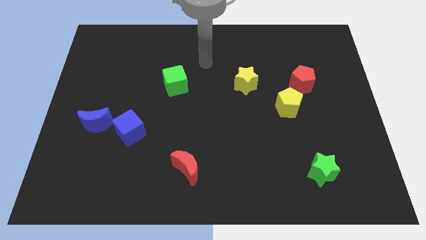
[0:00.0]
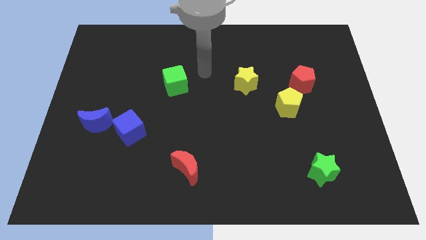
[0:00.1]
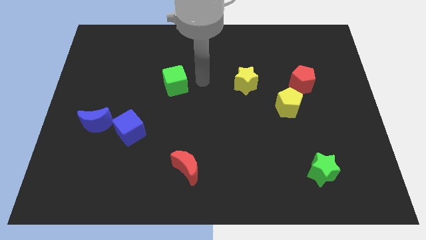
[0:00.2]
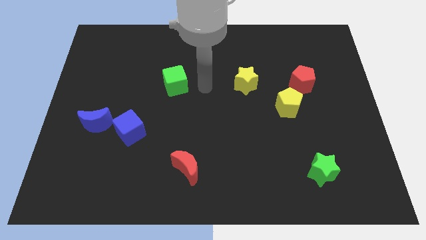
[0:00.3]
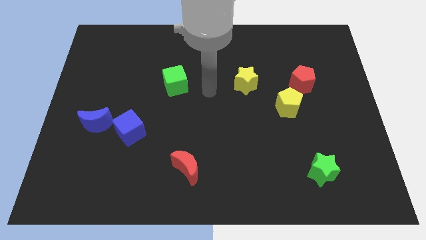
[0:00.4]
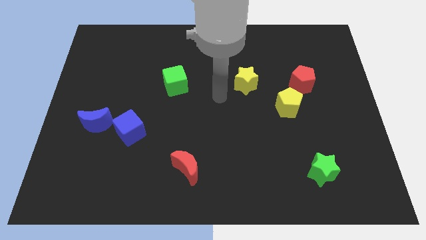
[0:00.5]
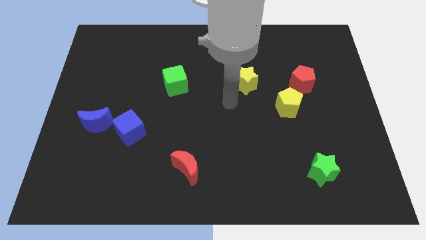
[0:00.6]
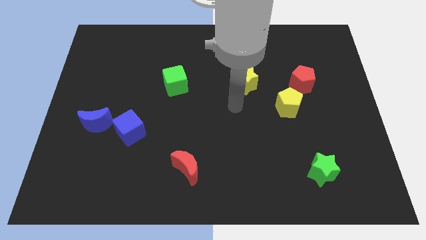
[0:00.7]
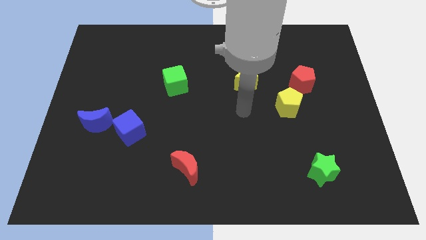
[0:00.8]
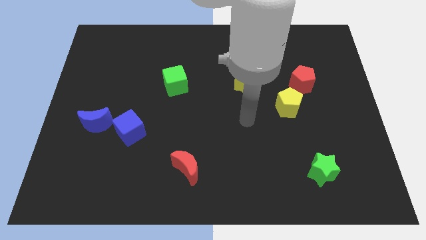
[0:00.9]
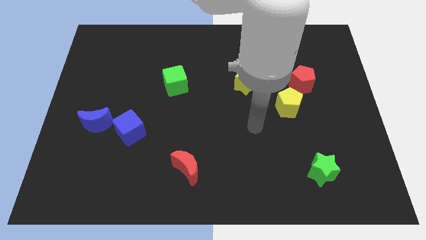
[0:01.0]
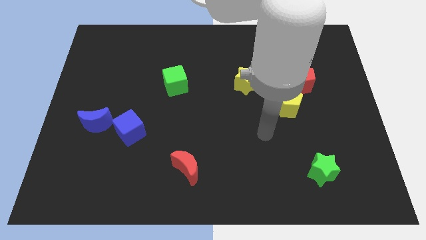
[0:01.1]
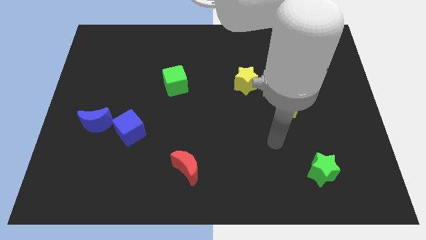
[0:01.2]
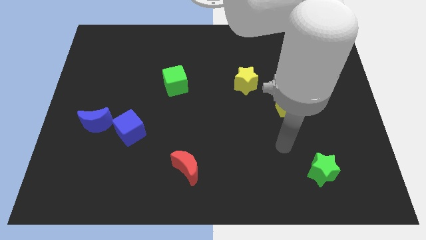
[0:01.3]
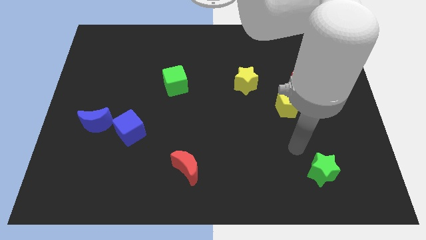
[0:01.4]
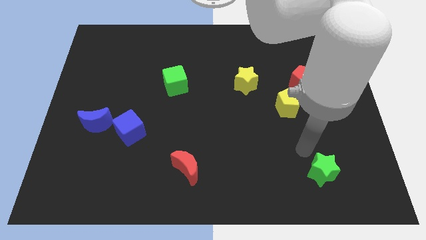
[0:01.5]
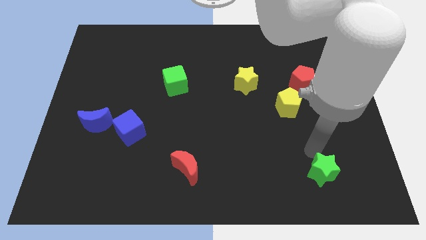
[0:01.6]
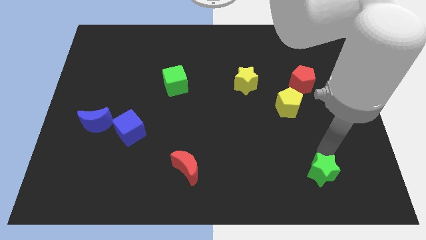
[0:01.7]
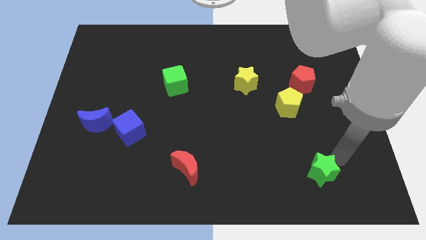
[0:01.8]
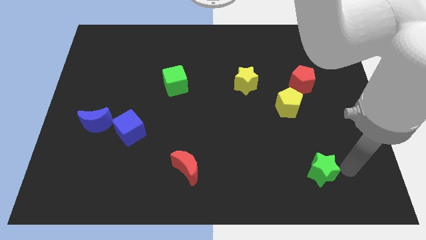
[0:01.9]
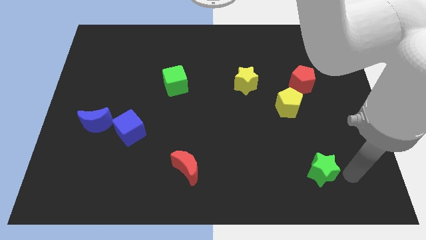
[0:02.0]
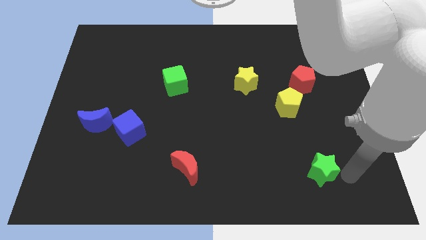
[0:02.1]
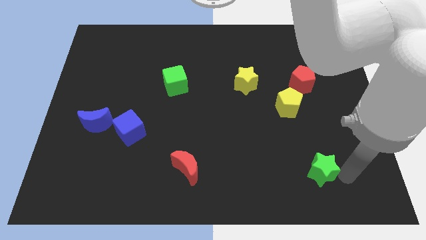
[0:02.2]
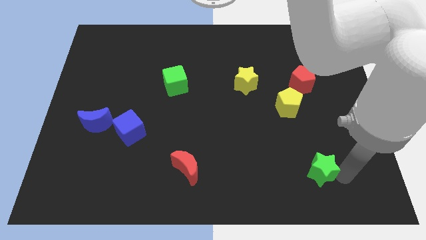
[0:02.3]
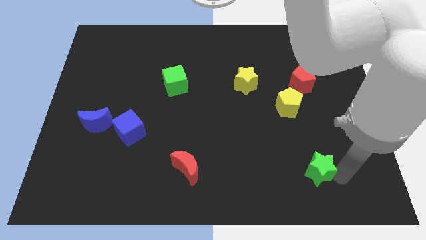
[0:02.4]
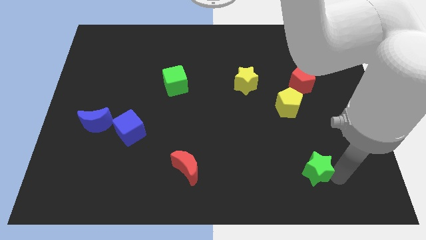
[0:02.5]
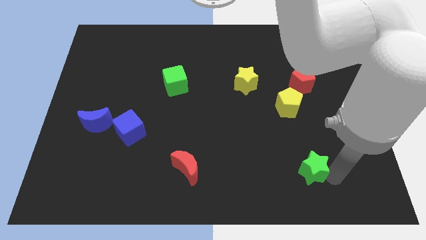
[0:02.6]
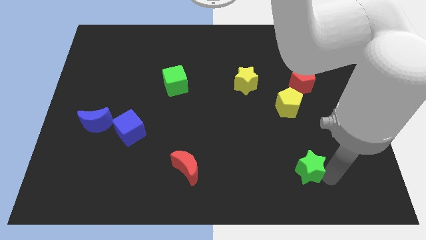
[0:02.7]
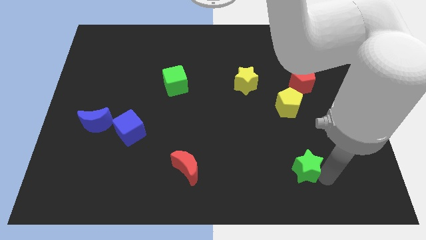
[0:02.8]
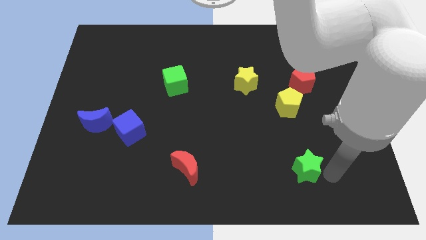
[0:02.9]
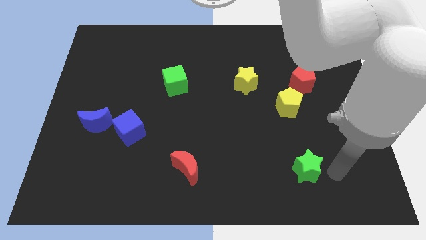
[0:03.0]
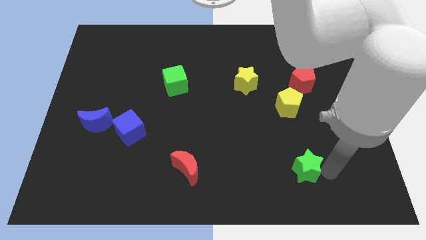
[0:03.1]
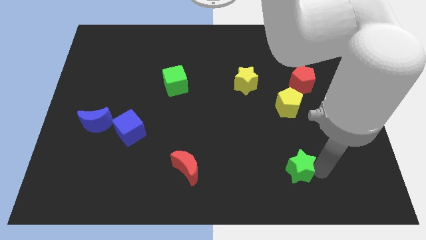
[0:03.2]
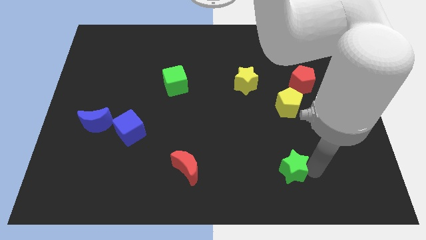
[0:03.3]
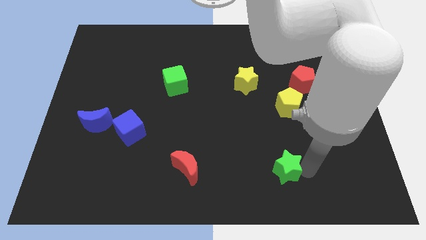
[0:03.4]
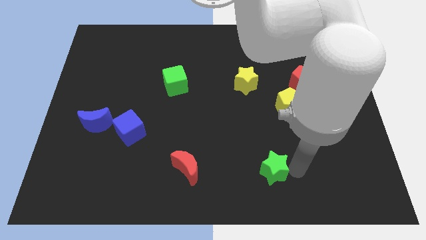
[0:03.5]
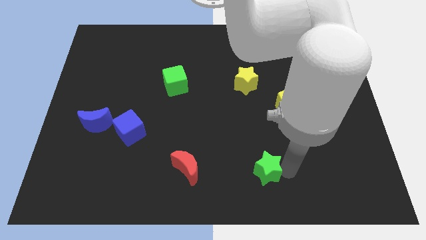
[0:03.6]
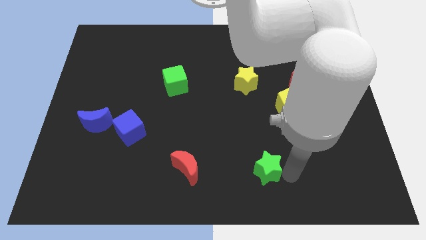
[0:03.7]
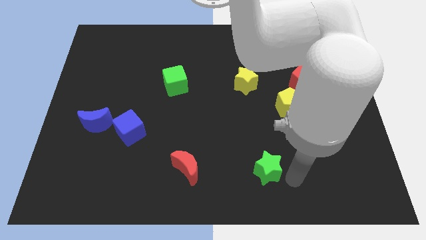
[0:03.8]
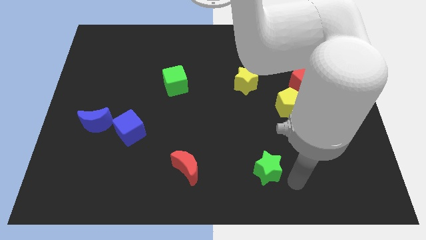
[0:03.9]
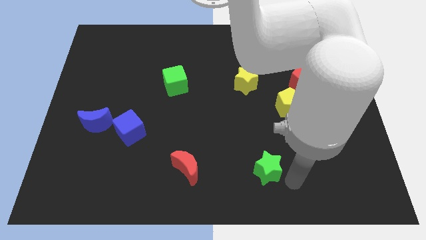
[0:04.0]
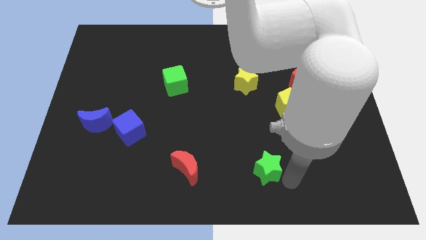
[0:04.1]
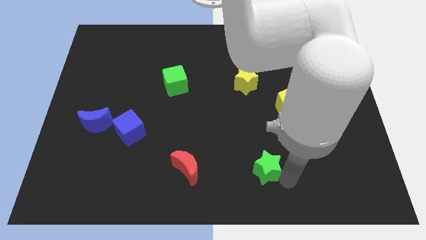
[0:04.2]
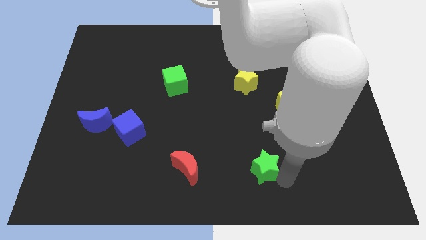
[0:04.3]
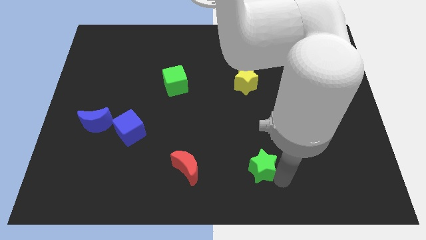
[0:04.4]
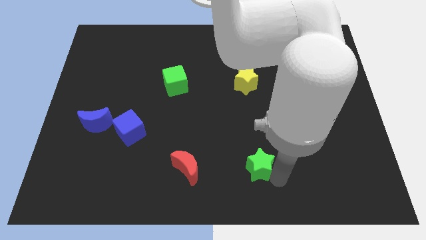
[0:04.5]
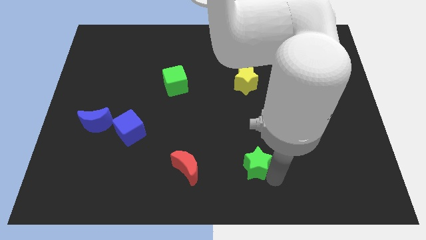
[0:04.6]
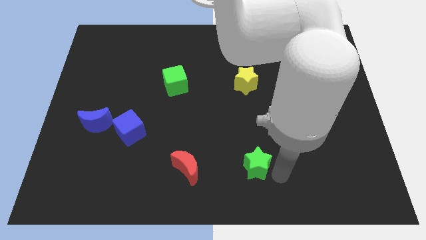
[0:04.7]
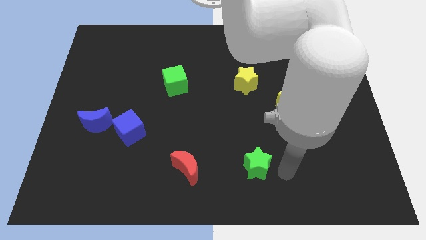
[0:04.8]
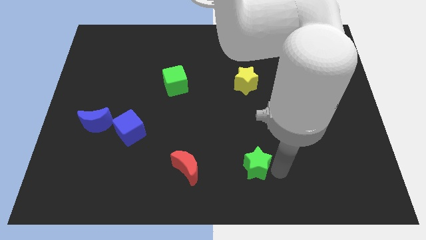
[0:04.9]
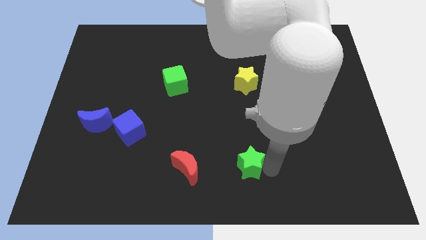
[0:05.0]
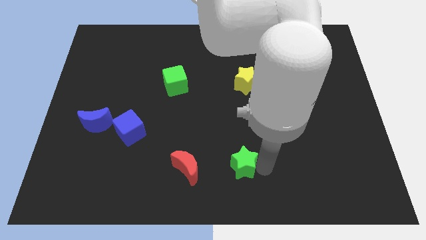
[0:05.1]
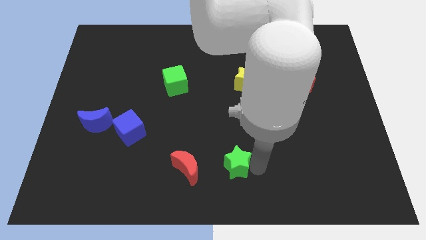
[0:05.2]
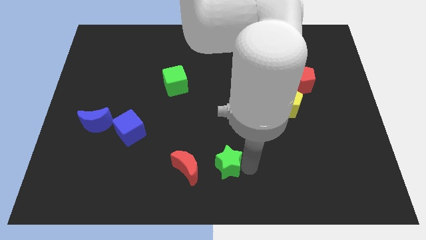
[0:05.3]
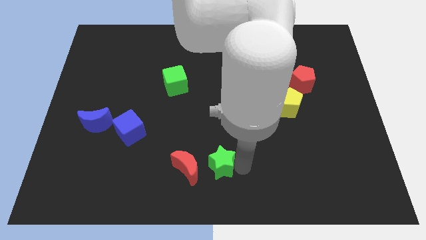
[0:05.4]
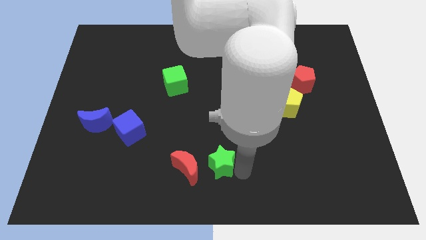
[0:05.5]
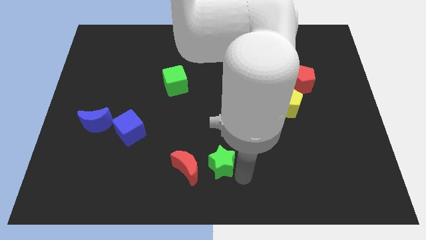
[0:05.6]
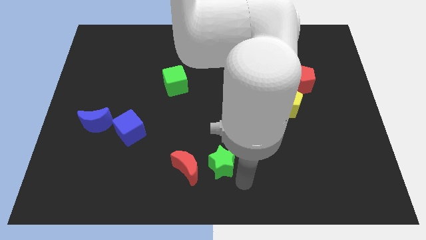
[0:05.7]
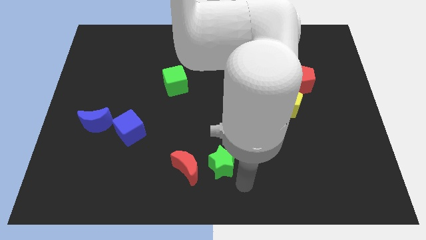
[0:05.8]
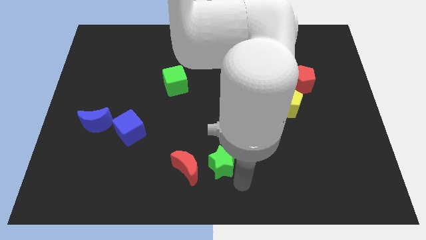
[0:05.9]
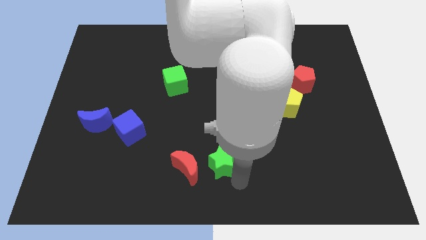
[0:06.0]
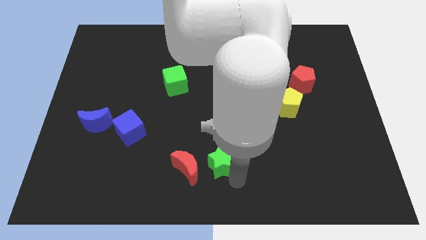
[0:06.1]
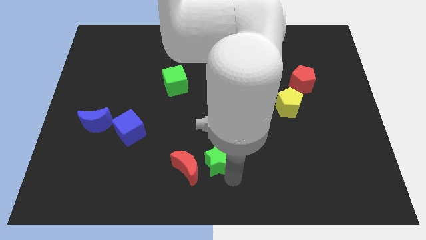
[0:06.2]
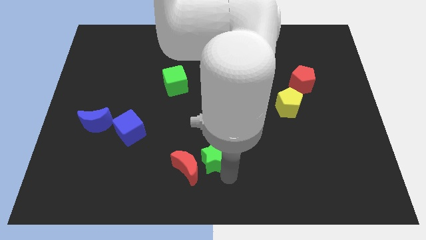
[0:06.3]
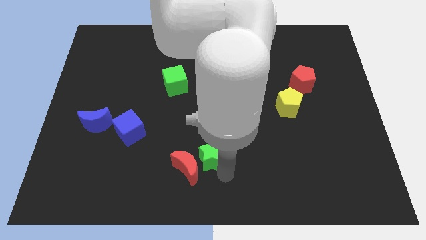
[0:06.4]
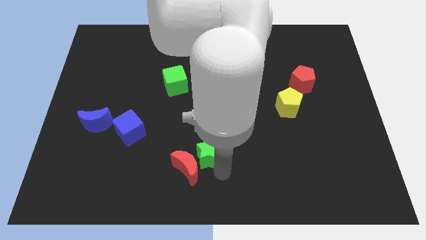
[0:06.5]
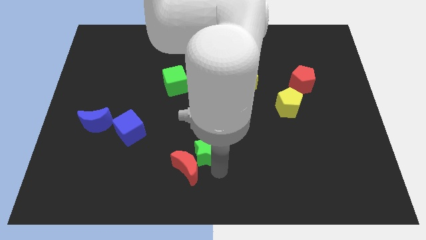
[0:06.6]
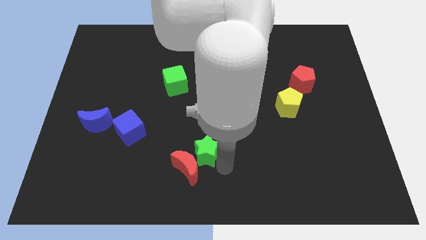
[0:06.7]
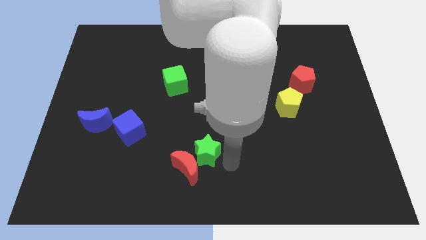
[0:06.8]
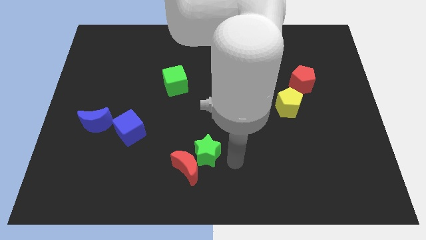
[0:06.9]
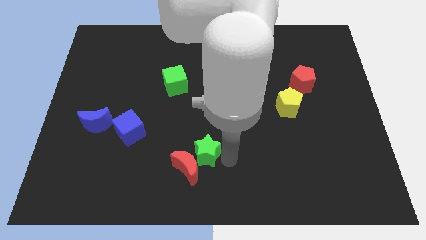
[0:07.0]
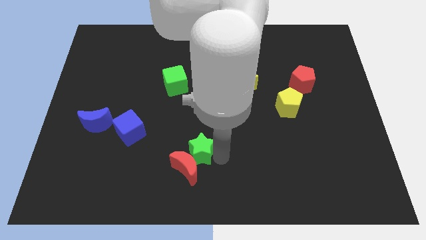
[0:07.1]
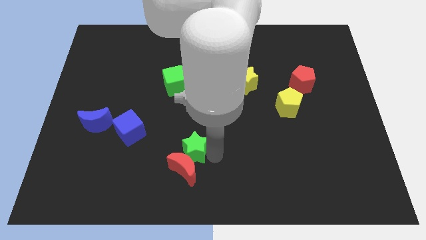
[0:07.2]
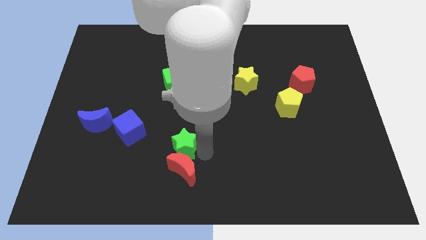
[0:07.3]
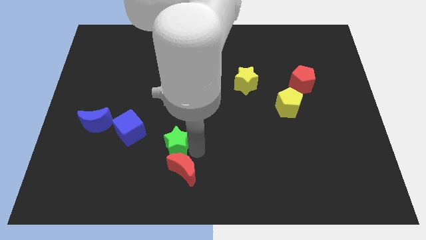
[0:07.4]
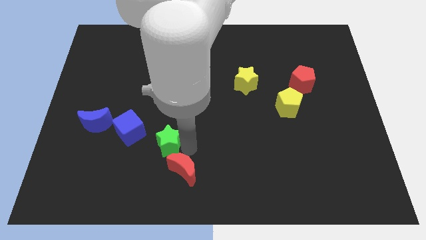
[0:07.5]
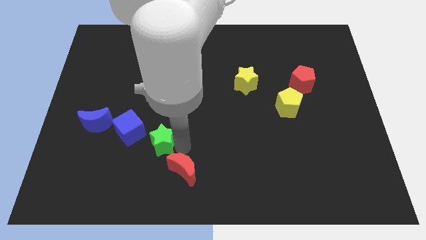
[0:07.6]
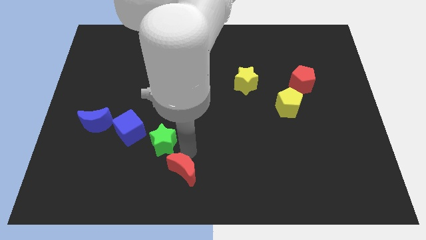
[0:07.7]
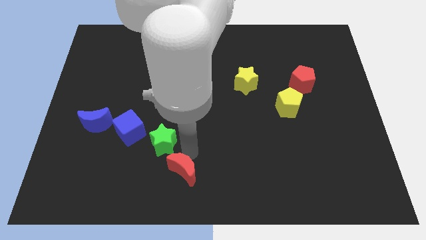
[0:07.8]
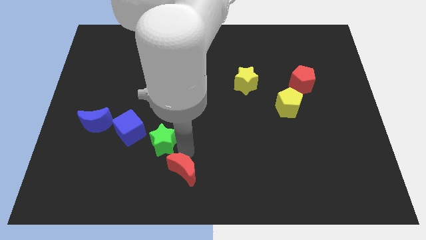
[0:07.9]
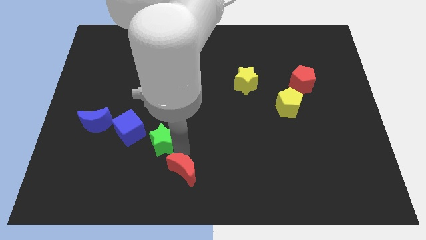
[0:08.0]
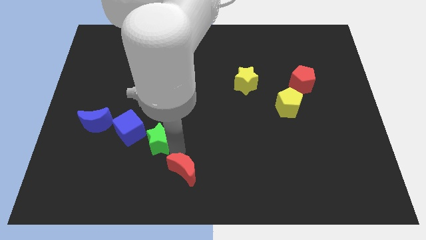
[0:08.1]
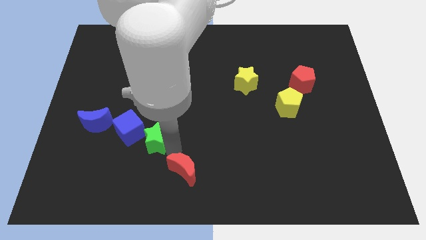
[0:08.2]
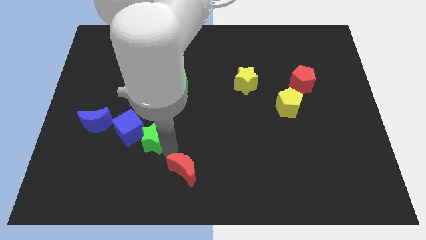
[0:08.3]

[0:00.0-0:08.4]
move the green star to the blue cube
